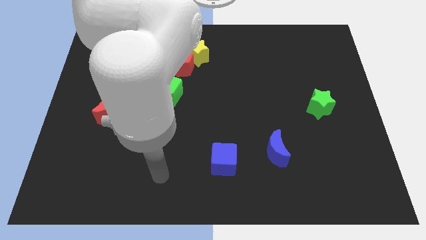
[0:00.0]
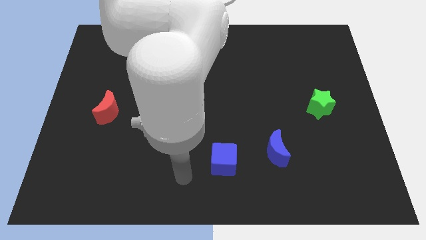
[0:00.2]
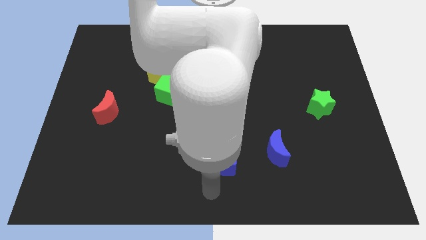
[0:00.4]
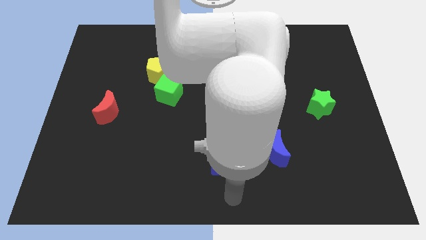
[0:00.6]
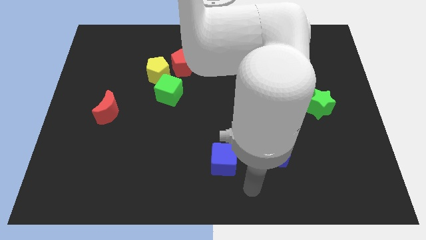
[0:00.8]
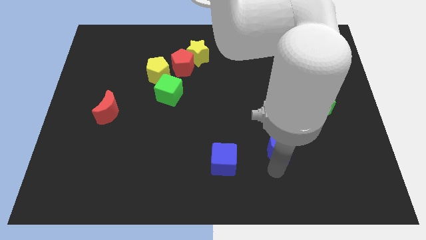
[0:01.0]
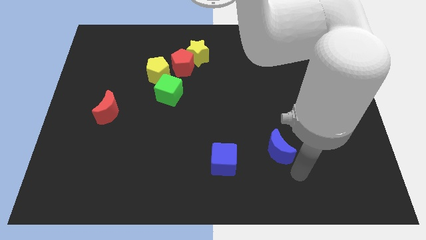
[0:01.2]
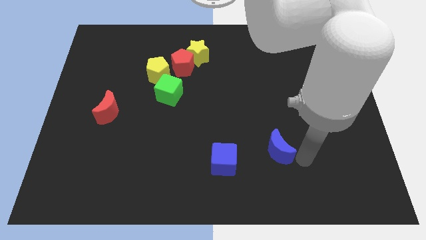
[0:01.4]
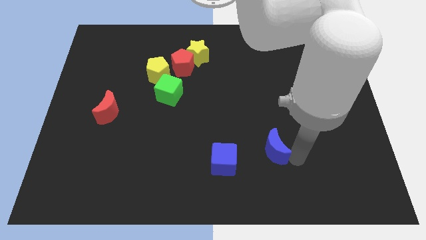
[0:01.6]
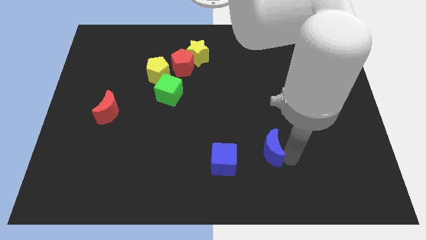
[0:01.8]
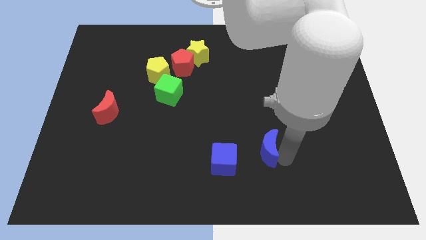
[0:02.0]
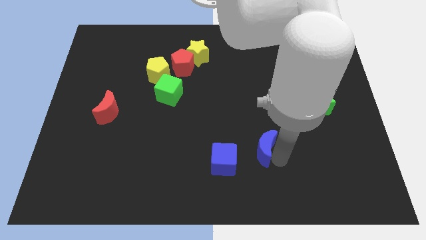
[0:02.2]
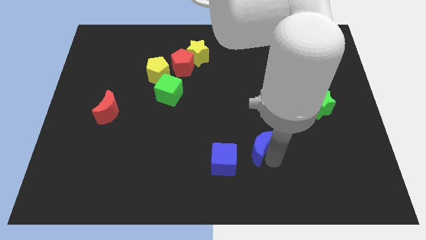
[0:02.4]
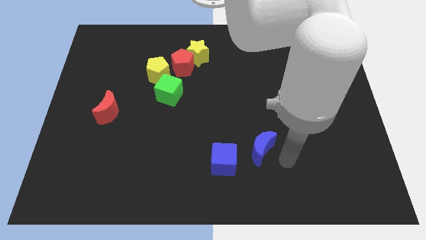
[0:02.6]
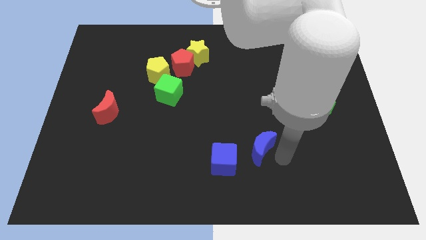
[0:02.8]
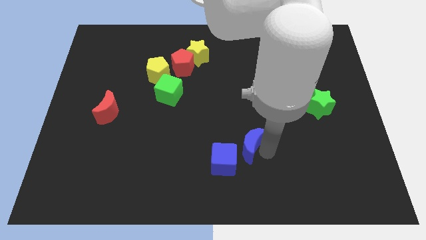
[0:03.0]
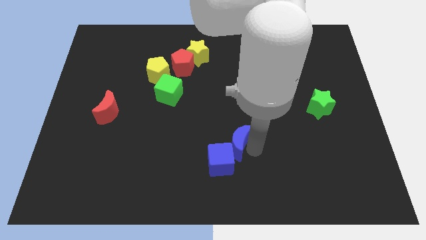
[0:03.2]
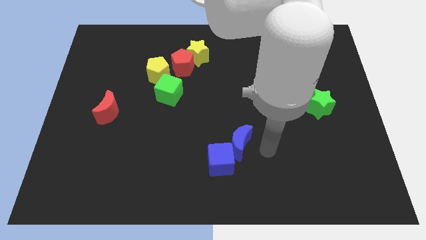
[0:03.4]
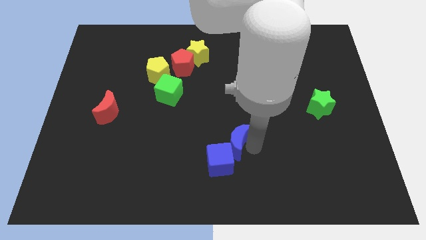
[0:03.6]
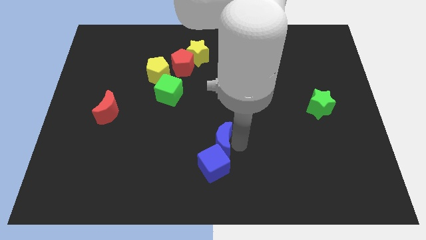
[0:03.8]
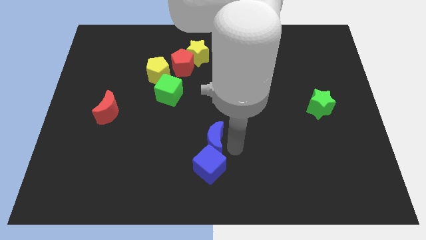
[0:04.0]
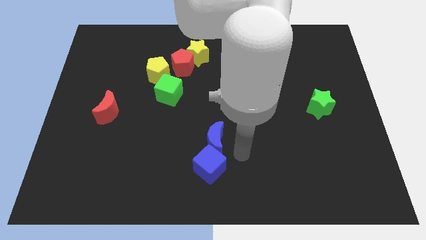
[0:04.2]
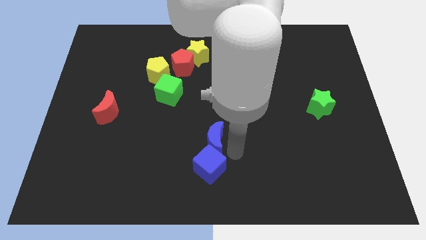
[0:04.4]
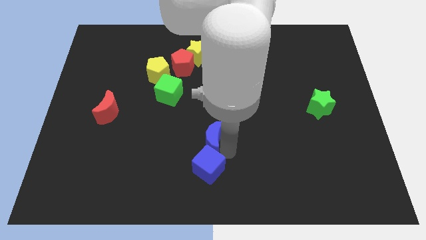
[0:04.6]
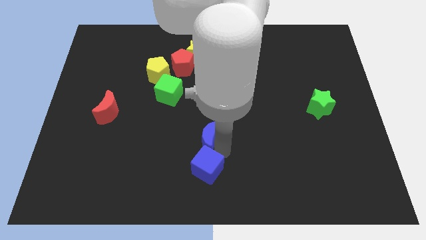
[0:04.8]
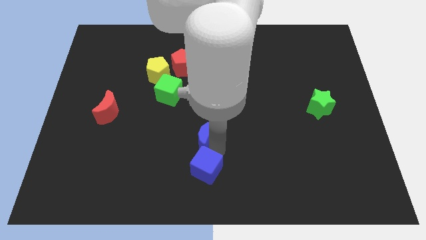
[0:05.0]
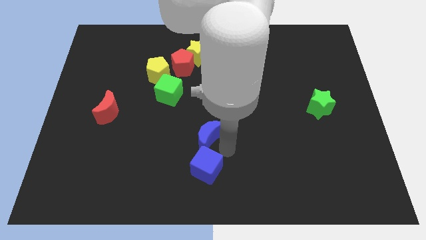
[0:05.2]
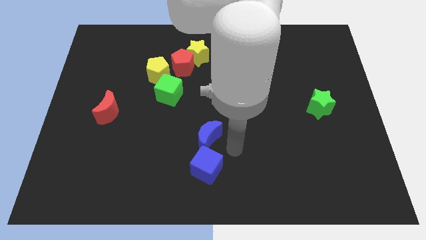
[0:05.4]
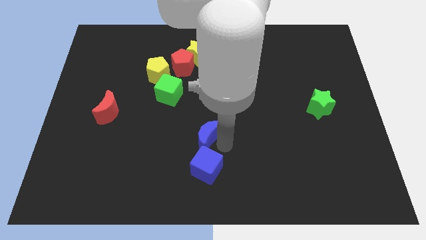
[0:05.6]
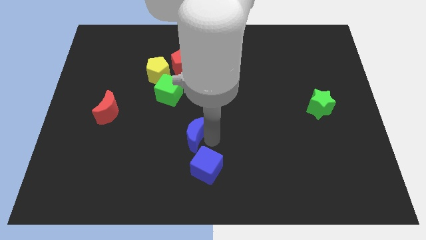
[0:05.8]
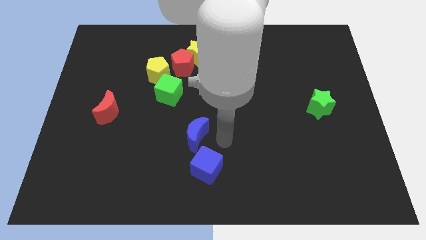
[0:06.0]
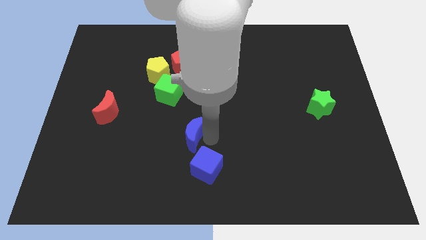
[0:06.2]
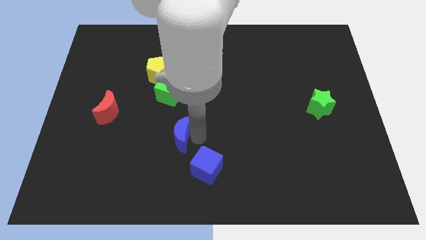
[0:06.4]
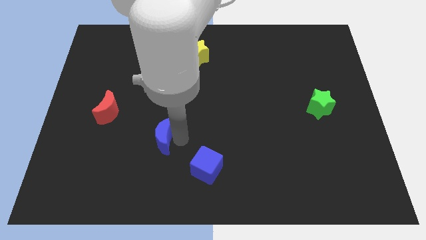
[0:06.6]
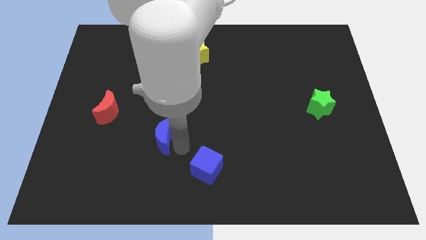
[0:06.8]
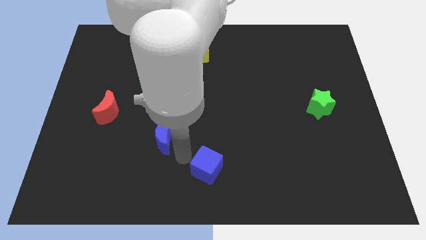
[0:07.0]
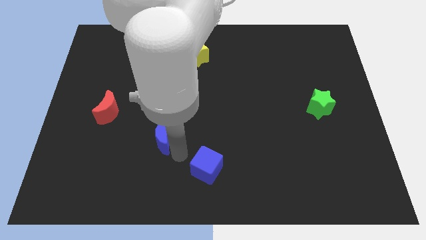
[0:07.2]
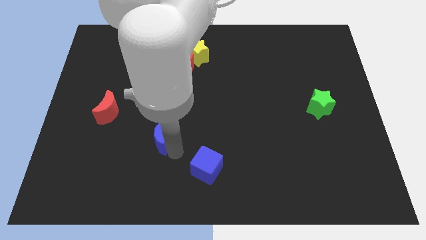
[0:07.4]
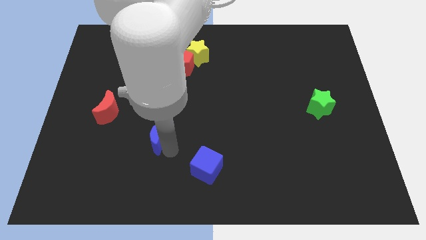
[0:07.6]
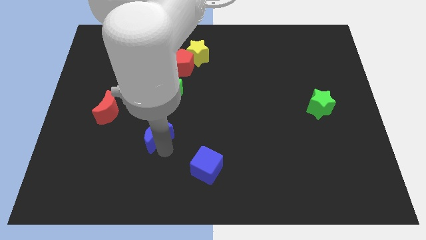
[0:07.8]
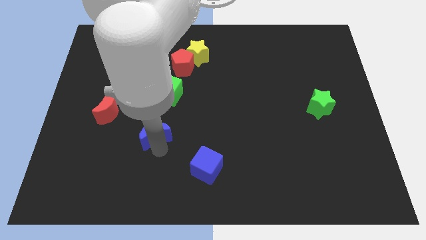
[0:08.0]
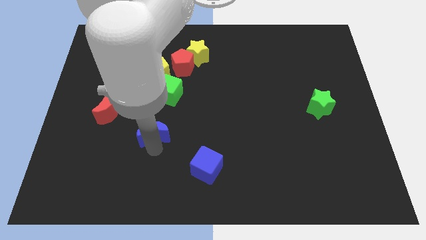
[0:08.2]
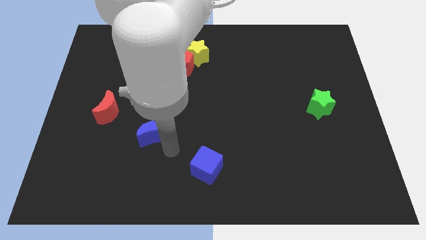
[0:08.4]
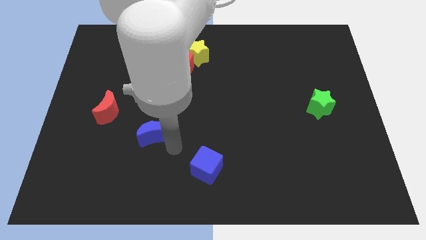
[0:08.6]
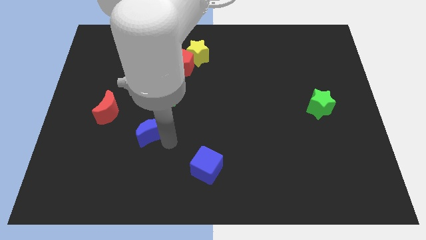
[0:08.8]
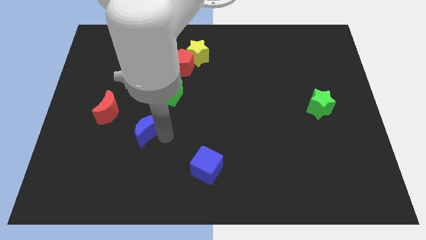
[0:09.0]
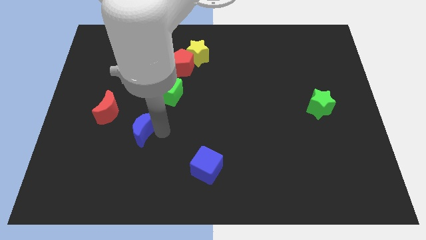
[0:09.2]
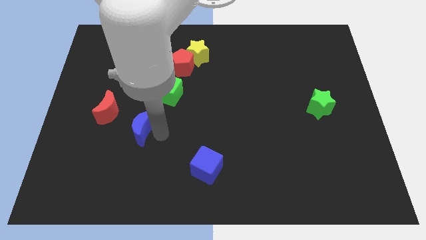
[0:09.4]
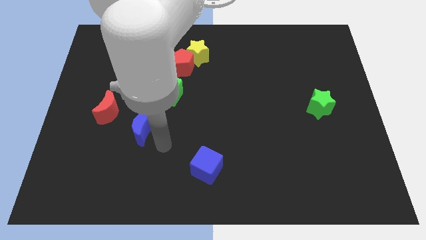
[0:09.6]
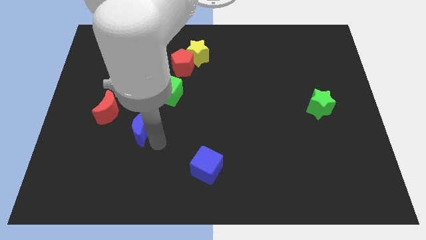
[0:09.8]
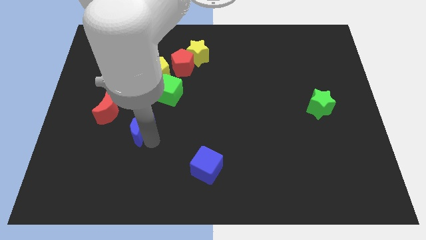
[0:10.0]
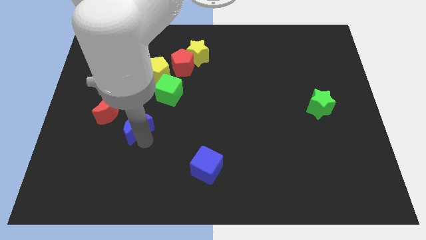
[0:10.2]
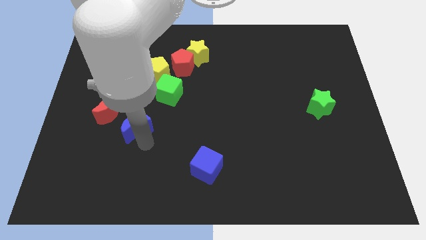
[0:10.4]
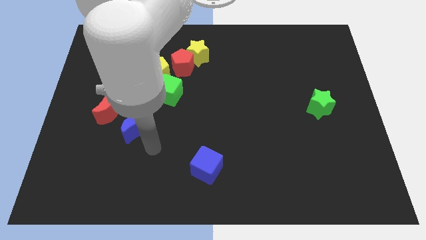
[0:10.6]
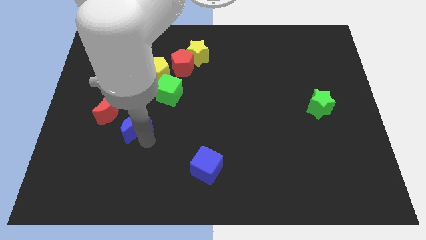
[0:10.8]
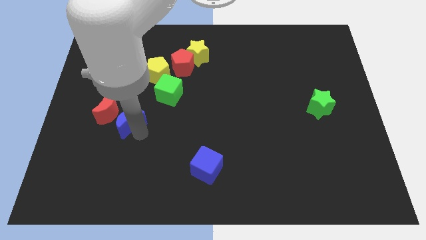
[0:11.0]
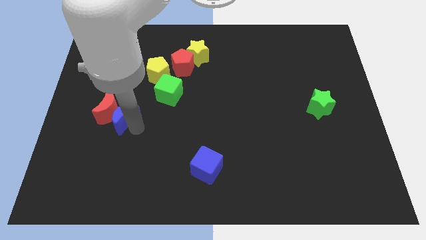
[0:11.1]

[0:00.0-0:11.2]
slide the blue moon next to the red moon
